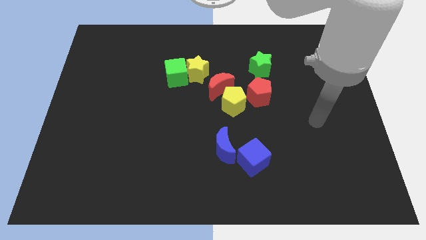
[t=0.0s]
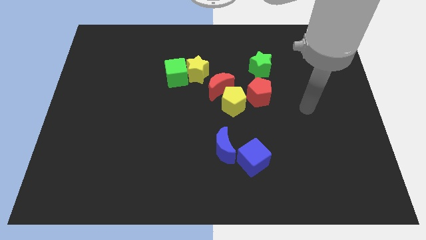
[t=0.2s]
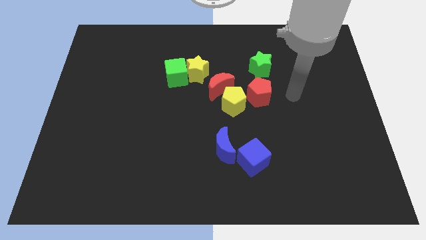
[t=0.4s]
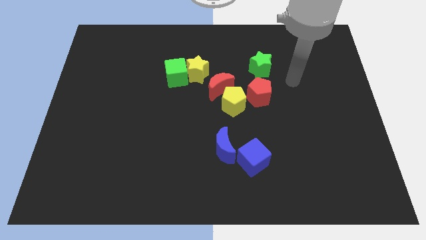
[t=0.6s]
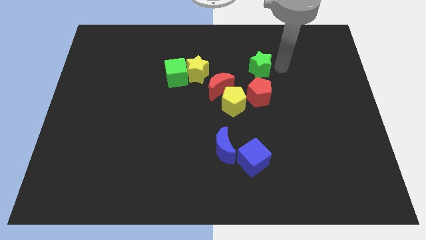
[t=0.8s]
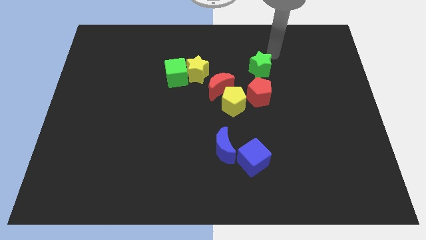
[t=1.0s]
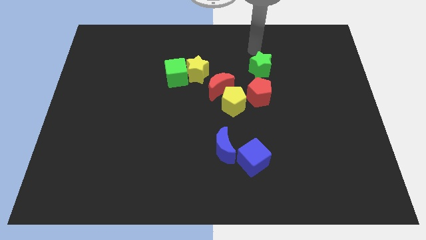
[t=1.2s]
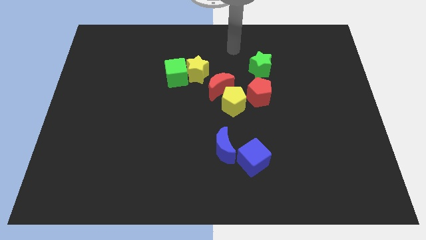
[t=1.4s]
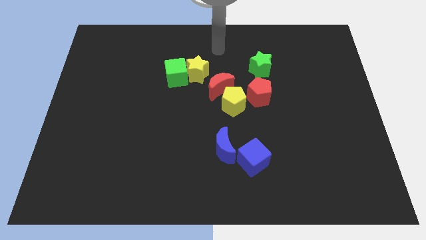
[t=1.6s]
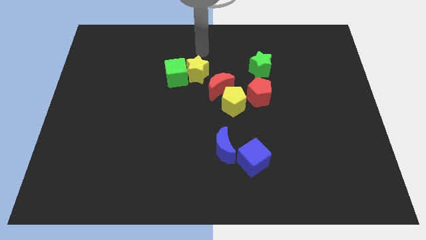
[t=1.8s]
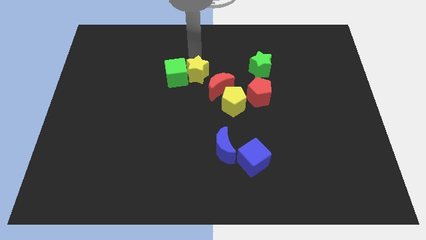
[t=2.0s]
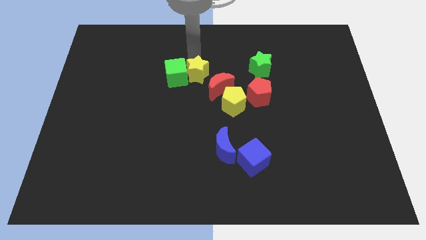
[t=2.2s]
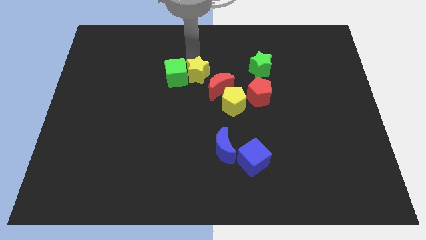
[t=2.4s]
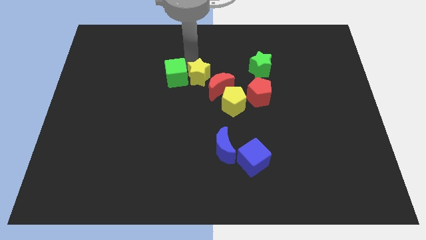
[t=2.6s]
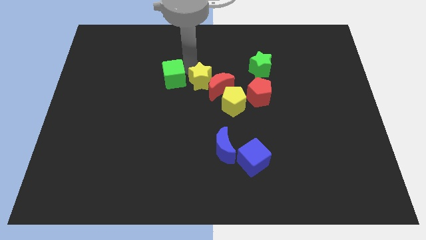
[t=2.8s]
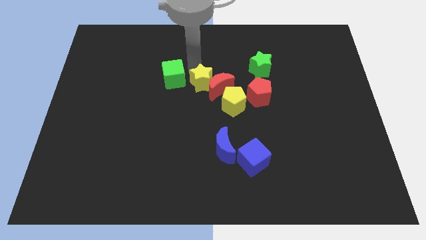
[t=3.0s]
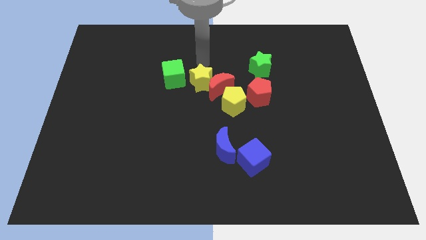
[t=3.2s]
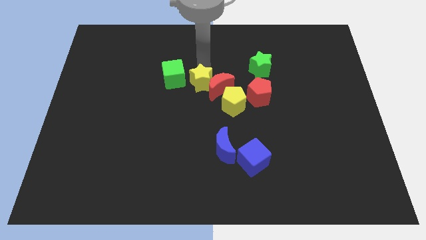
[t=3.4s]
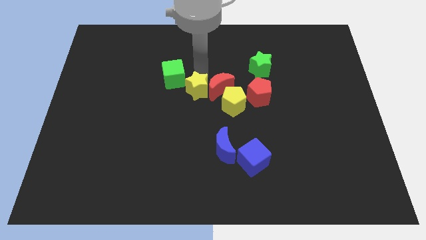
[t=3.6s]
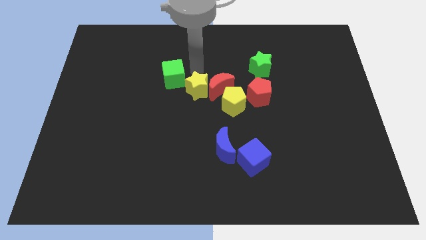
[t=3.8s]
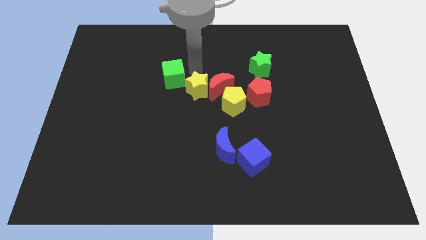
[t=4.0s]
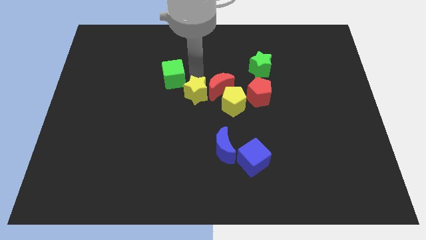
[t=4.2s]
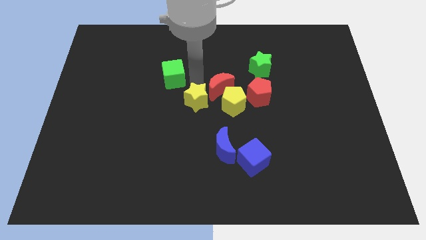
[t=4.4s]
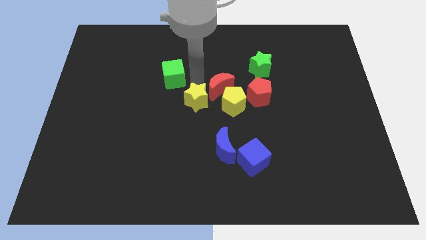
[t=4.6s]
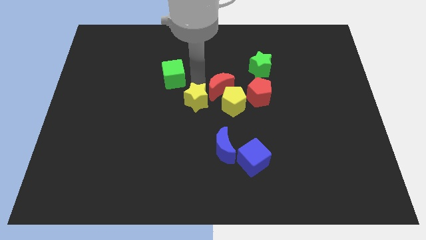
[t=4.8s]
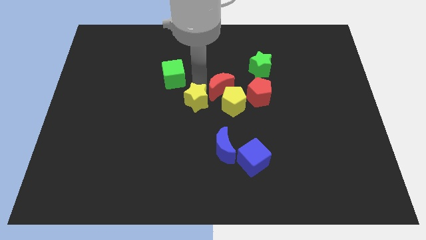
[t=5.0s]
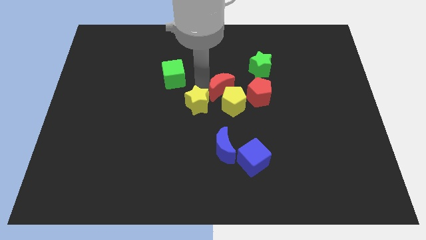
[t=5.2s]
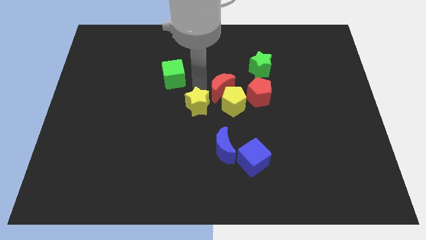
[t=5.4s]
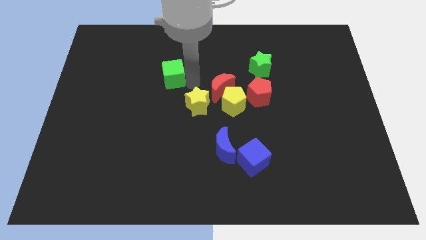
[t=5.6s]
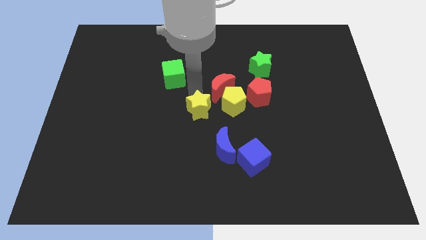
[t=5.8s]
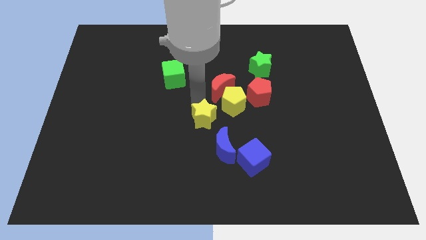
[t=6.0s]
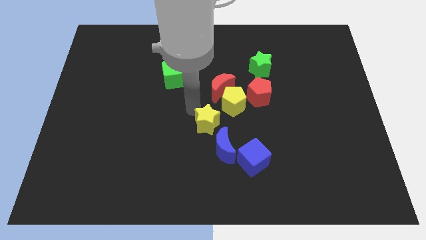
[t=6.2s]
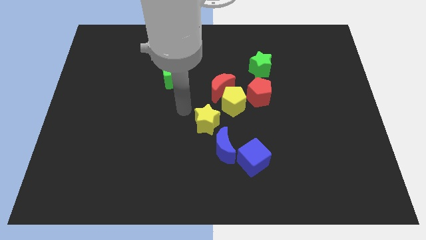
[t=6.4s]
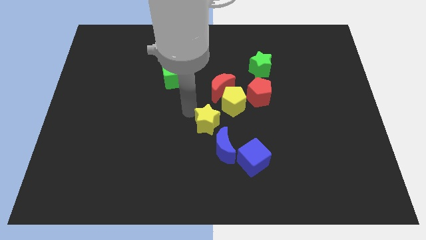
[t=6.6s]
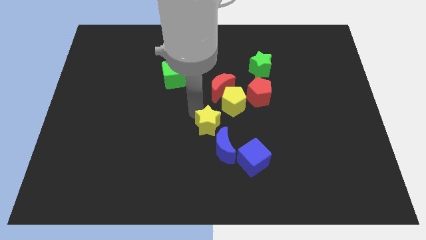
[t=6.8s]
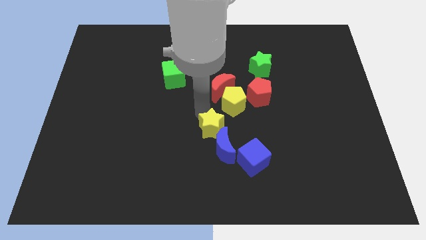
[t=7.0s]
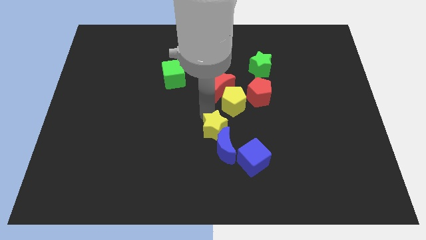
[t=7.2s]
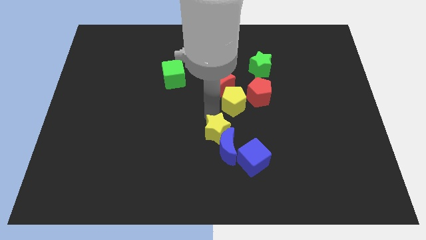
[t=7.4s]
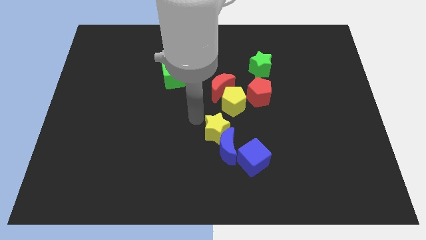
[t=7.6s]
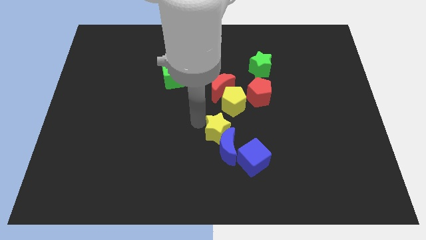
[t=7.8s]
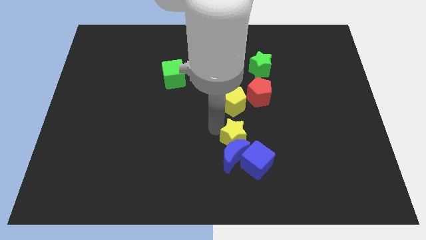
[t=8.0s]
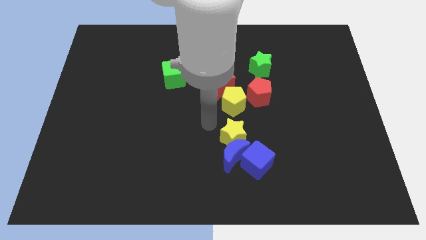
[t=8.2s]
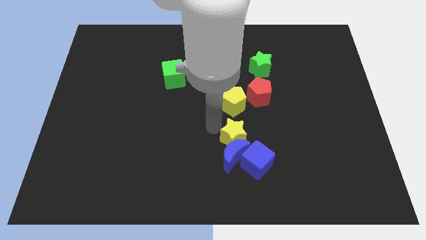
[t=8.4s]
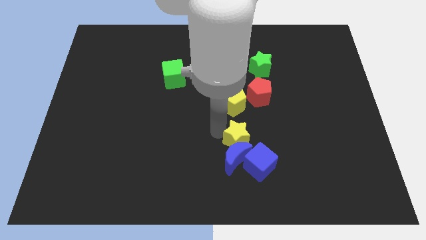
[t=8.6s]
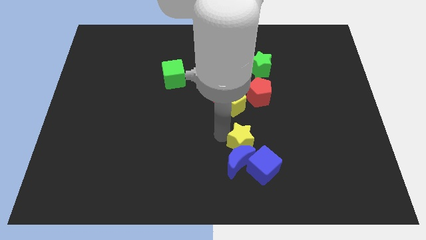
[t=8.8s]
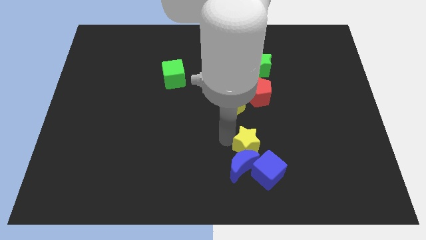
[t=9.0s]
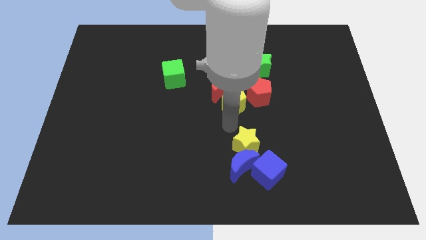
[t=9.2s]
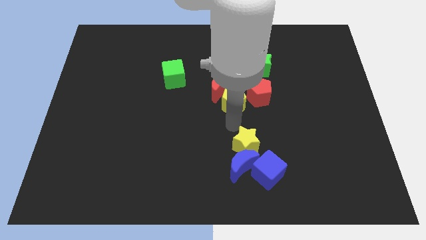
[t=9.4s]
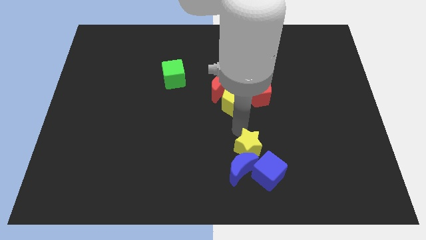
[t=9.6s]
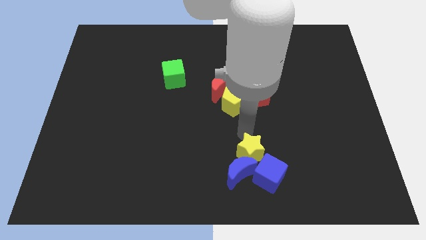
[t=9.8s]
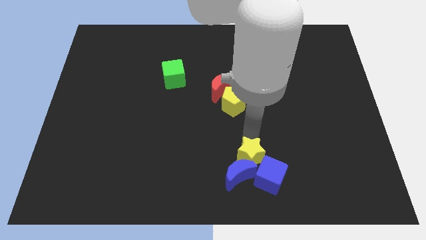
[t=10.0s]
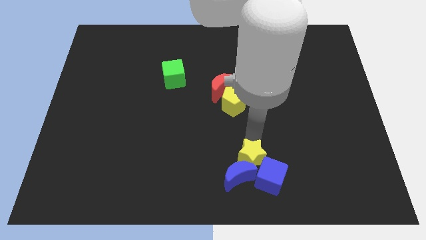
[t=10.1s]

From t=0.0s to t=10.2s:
move the yellow star close to the blue cube

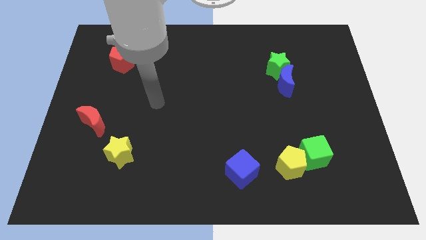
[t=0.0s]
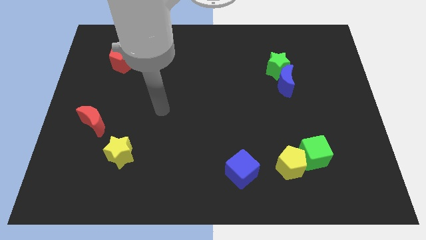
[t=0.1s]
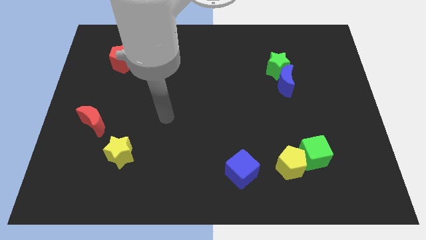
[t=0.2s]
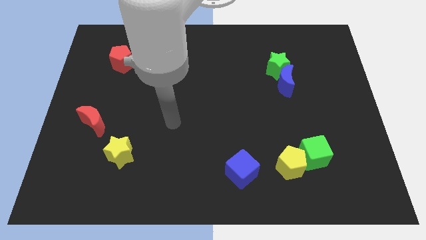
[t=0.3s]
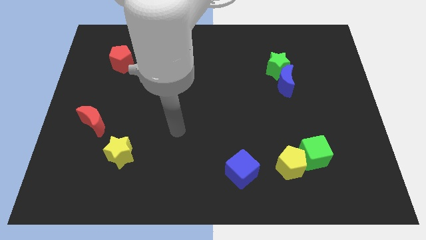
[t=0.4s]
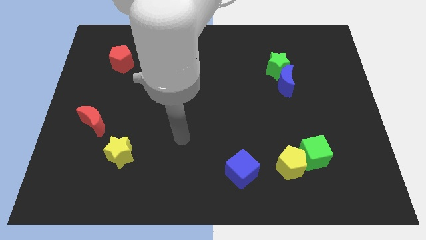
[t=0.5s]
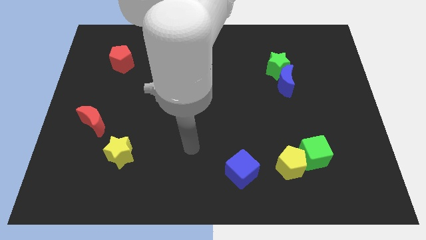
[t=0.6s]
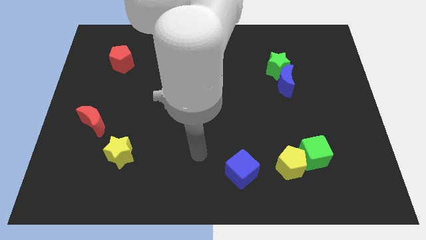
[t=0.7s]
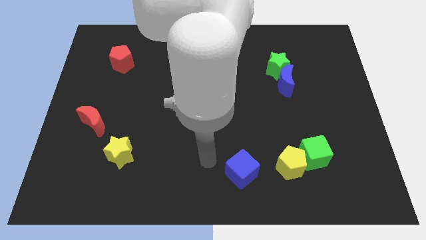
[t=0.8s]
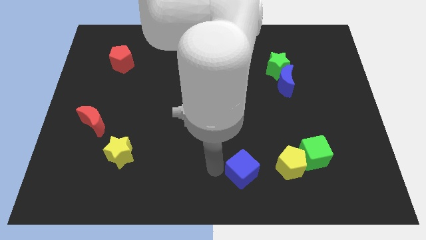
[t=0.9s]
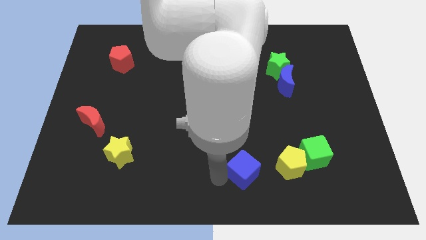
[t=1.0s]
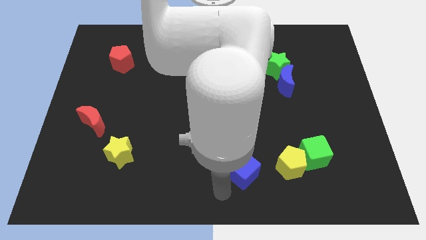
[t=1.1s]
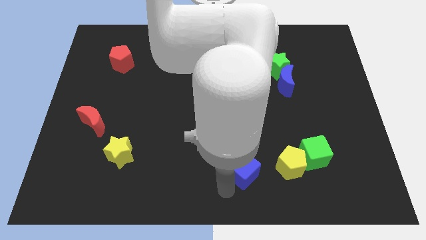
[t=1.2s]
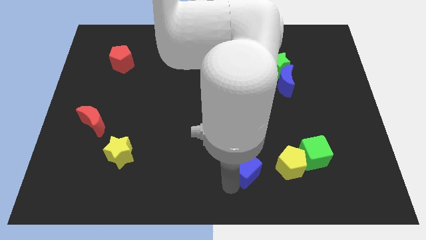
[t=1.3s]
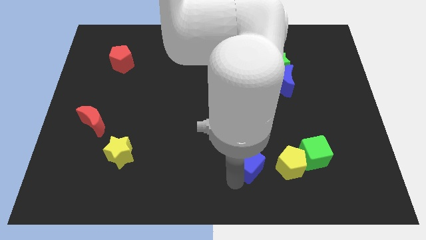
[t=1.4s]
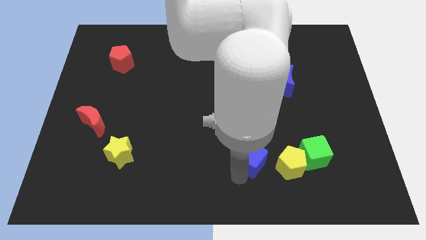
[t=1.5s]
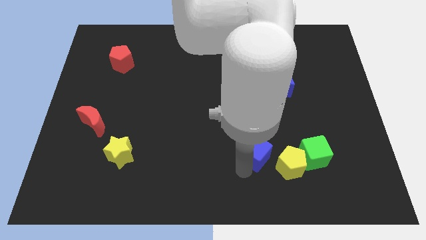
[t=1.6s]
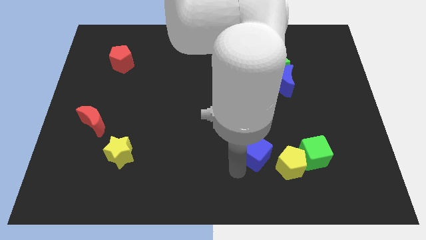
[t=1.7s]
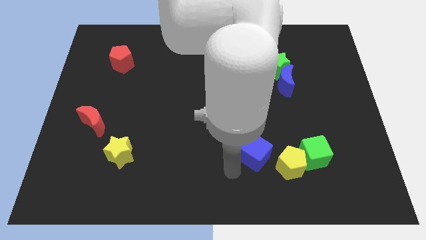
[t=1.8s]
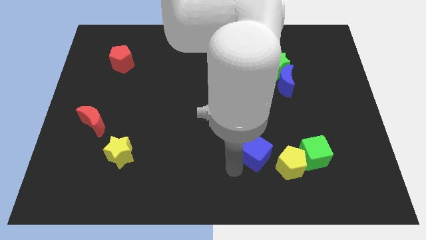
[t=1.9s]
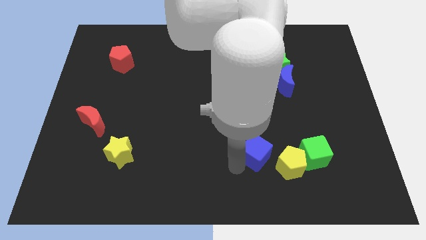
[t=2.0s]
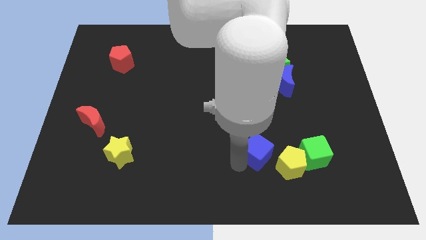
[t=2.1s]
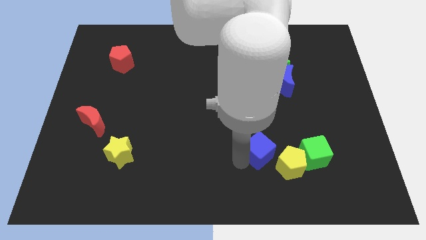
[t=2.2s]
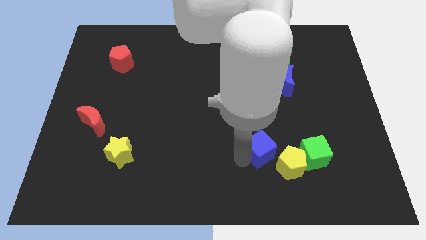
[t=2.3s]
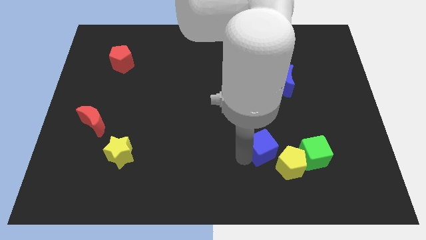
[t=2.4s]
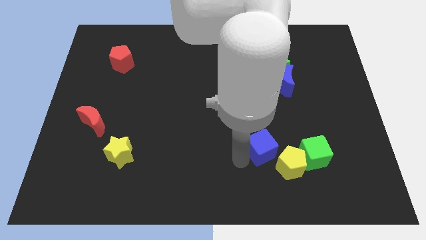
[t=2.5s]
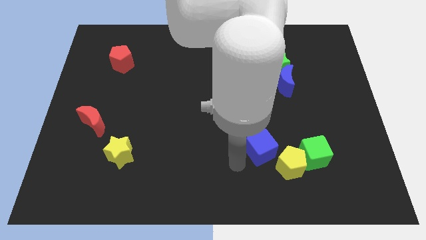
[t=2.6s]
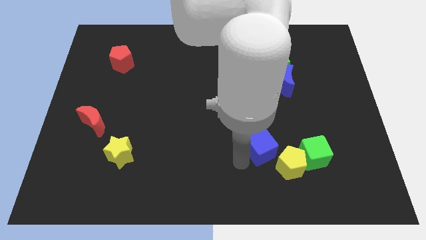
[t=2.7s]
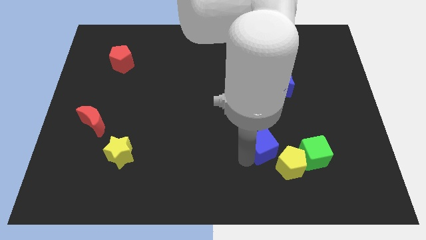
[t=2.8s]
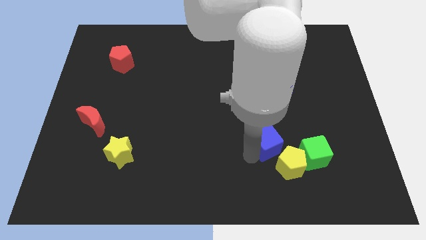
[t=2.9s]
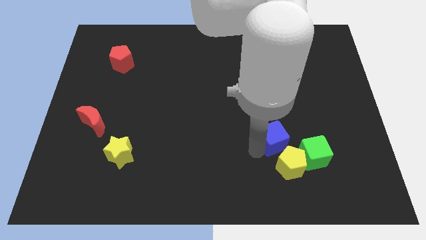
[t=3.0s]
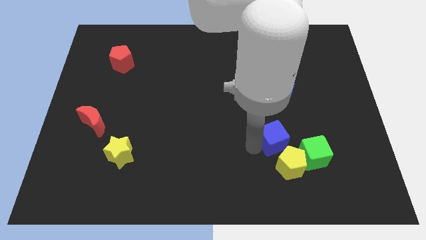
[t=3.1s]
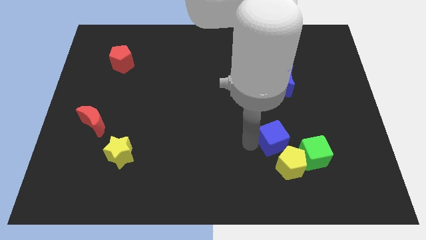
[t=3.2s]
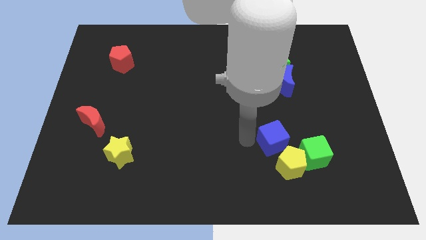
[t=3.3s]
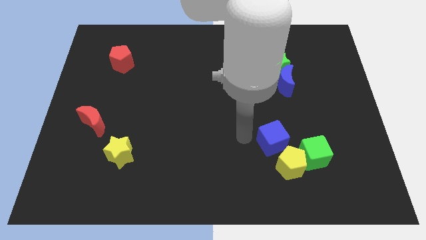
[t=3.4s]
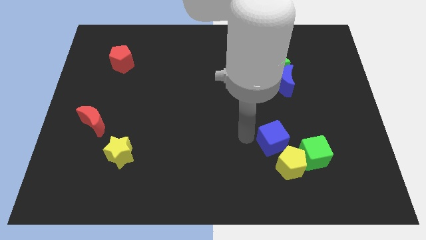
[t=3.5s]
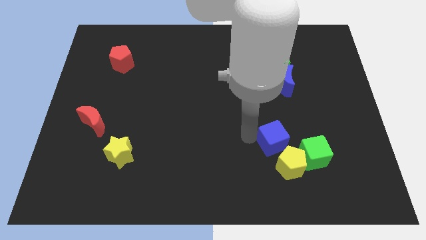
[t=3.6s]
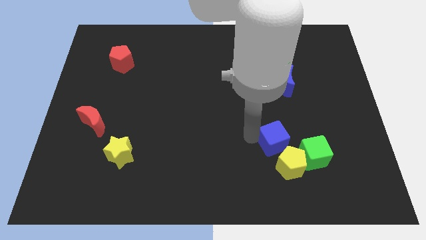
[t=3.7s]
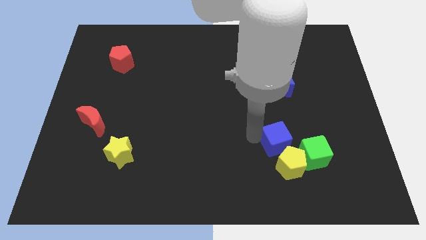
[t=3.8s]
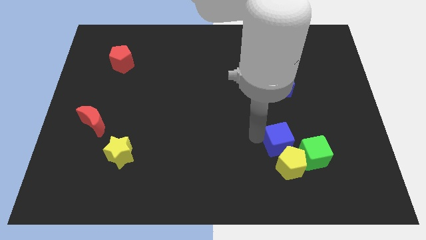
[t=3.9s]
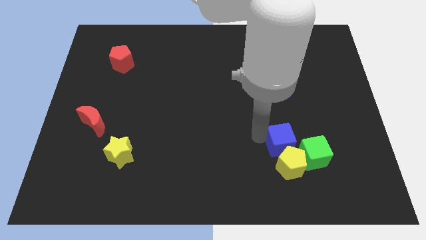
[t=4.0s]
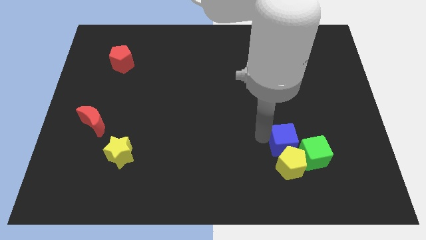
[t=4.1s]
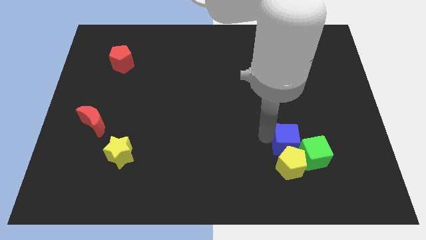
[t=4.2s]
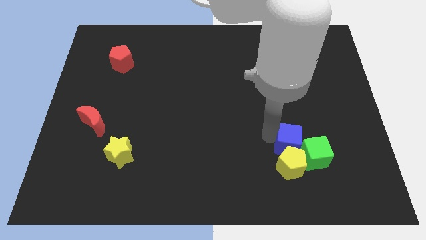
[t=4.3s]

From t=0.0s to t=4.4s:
push the blue cube to the green cube
